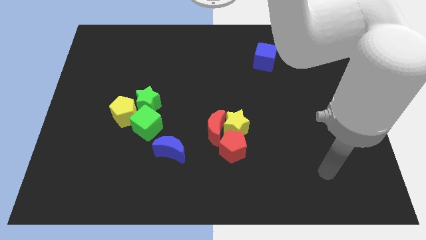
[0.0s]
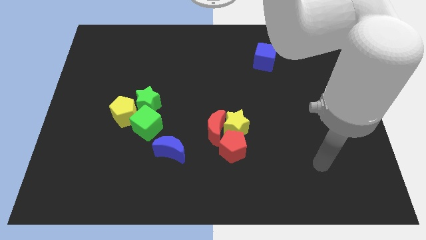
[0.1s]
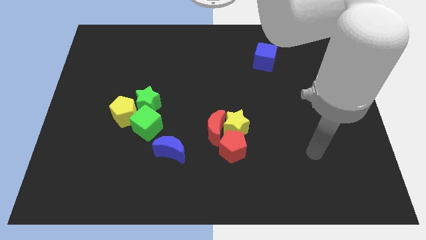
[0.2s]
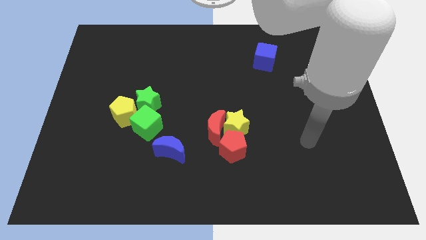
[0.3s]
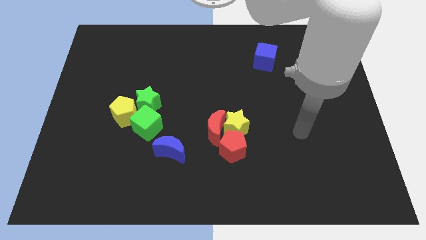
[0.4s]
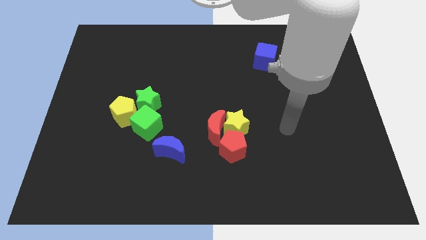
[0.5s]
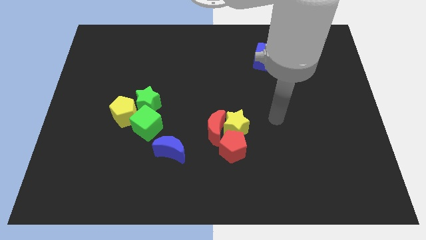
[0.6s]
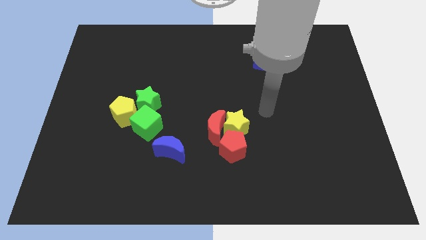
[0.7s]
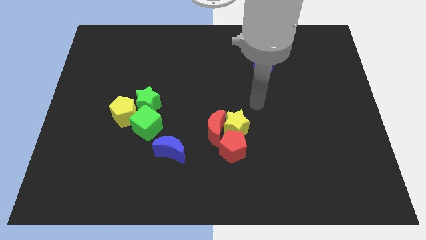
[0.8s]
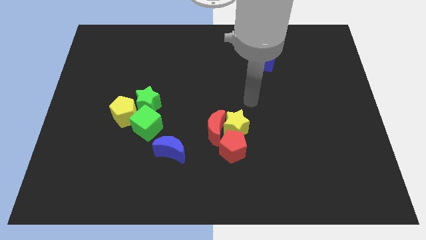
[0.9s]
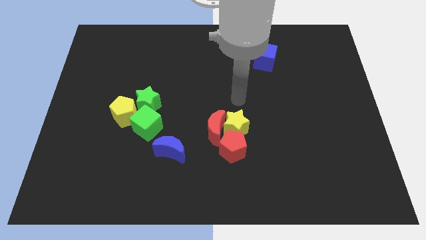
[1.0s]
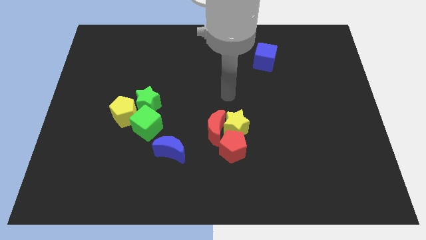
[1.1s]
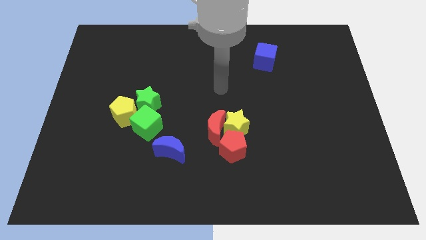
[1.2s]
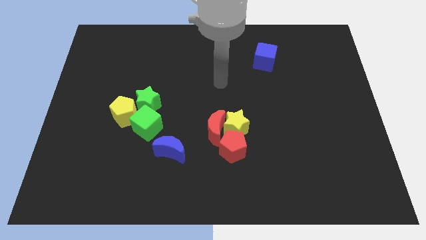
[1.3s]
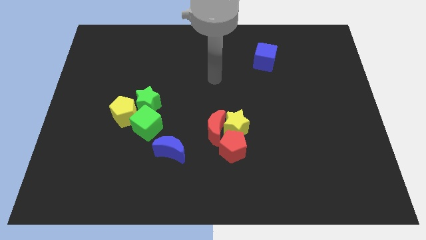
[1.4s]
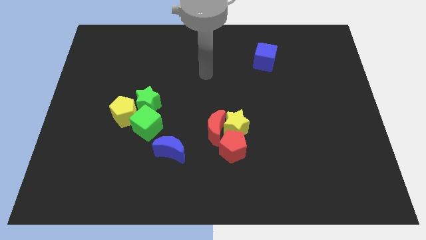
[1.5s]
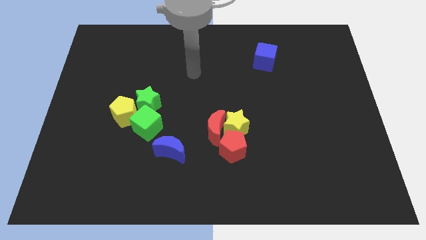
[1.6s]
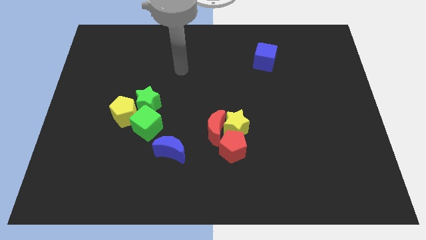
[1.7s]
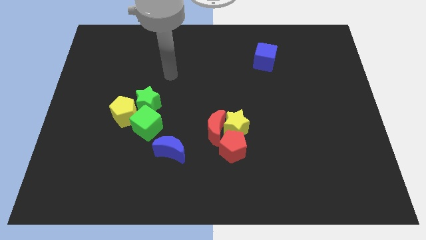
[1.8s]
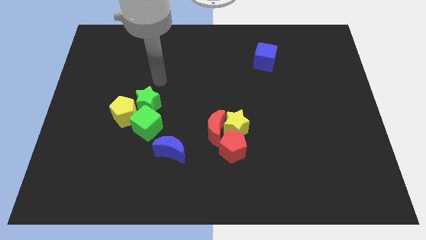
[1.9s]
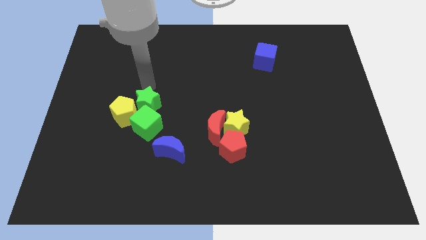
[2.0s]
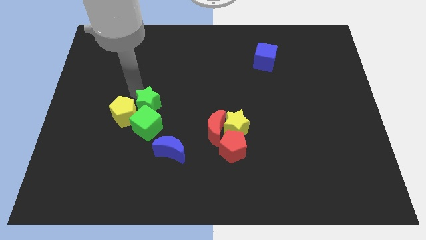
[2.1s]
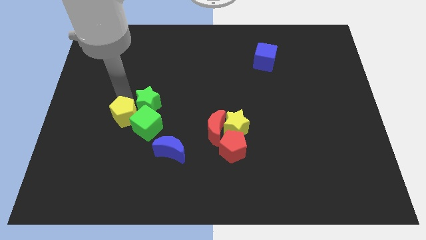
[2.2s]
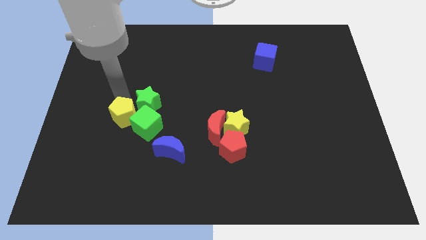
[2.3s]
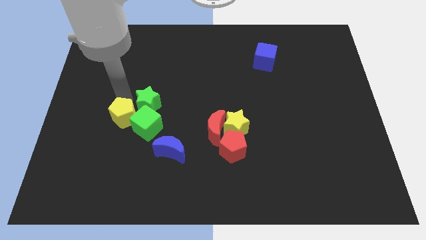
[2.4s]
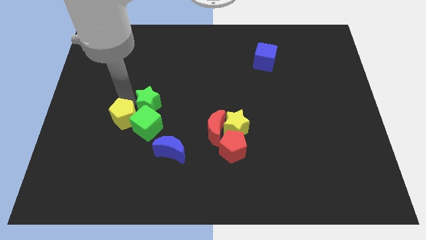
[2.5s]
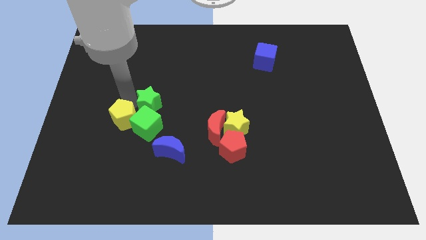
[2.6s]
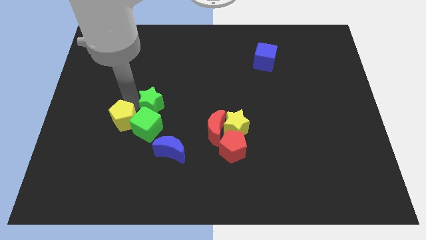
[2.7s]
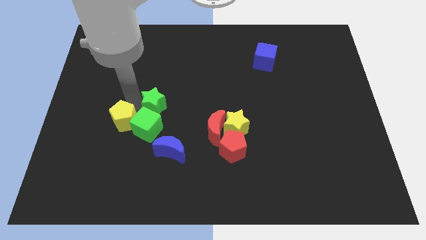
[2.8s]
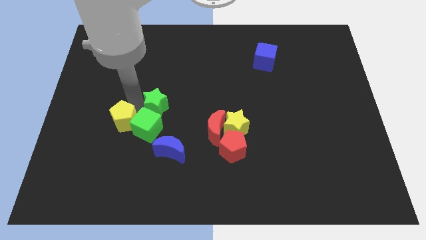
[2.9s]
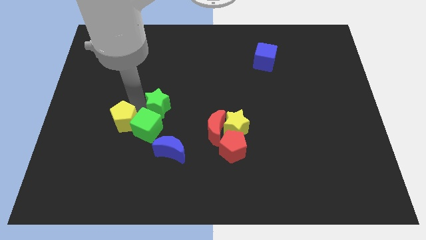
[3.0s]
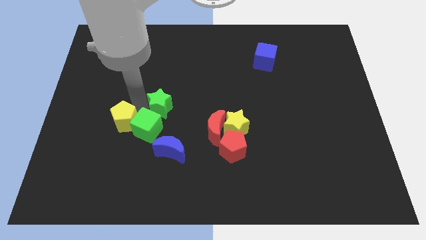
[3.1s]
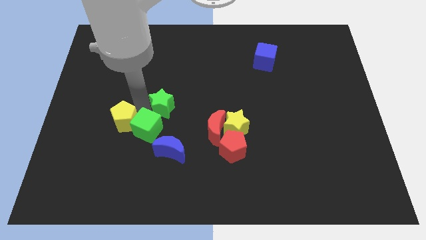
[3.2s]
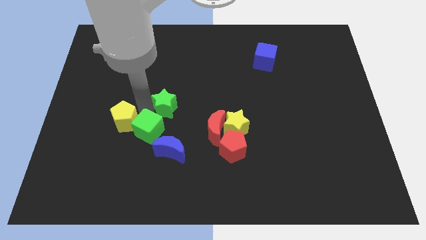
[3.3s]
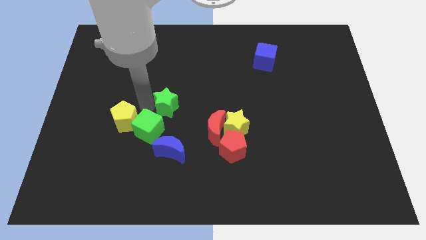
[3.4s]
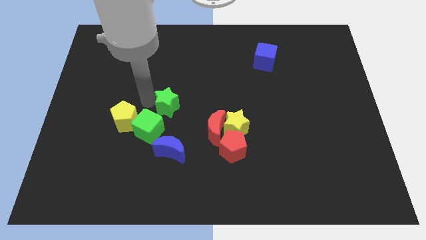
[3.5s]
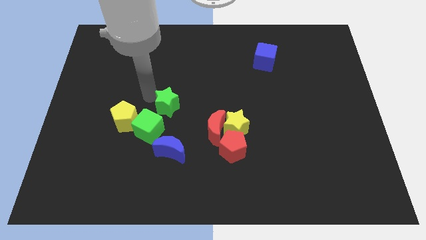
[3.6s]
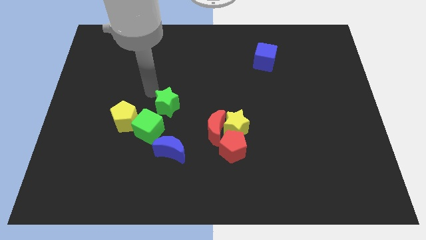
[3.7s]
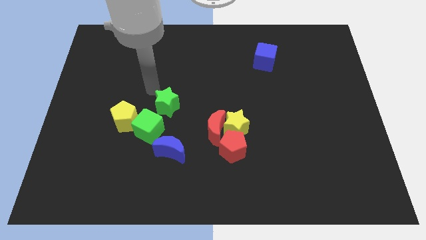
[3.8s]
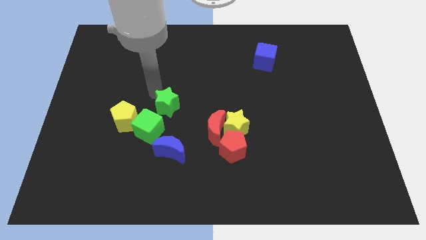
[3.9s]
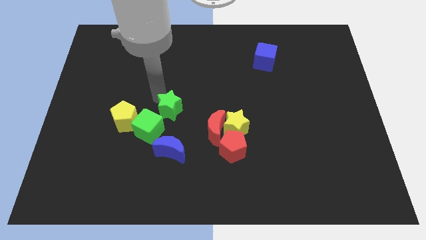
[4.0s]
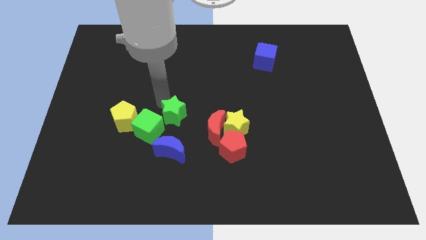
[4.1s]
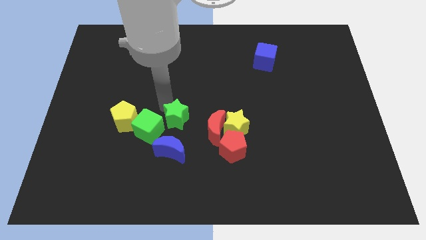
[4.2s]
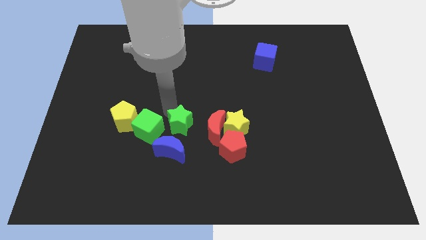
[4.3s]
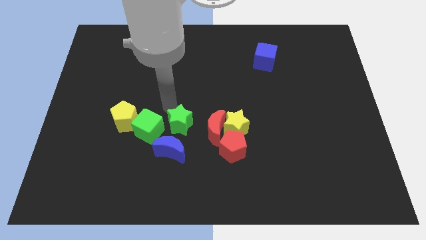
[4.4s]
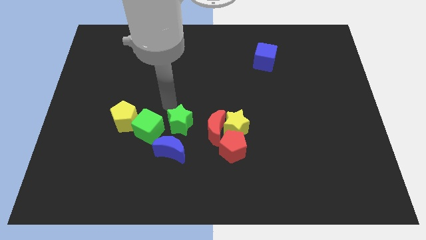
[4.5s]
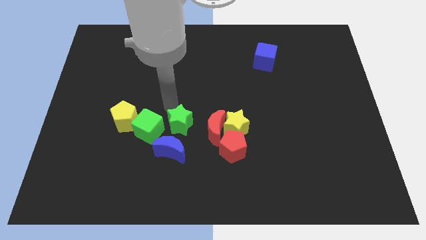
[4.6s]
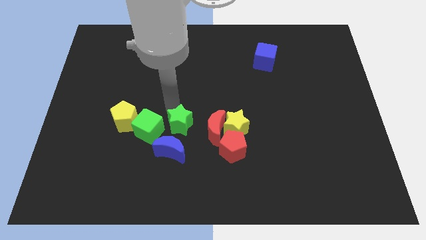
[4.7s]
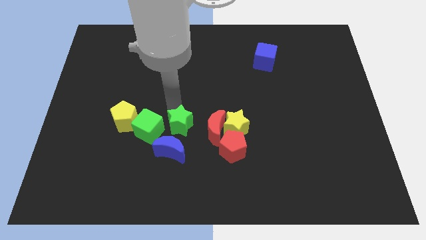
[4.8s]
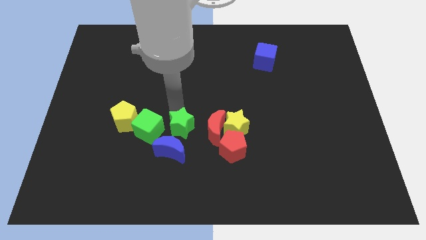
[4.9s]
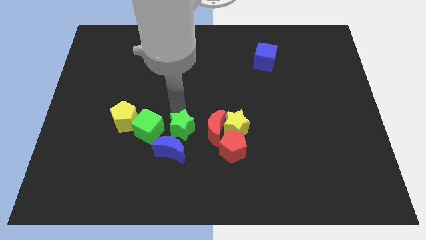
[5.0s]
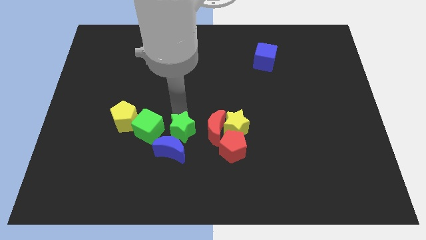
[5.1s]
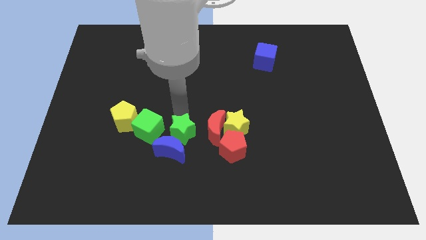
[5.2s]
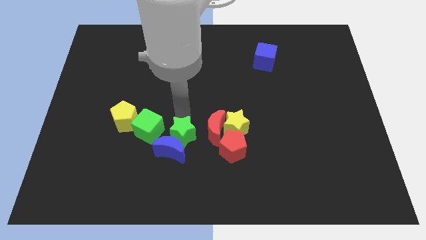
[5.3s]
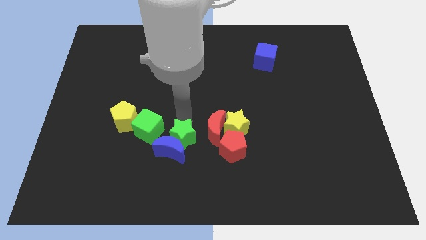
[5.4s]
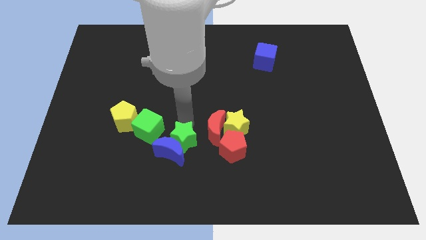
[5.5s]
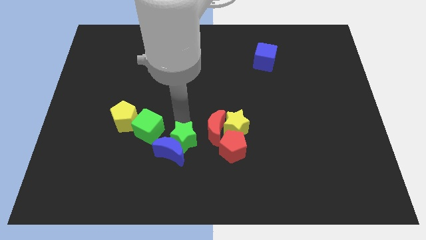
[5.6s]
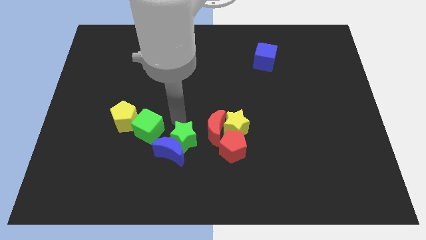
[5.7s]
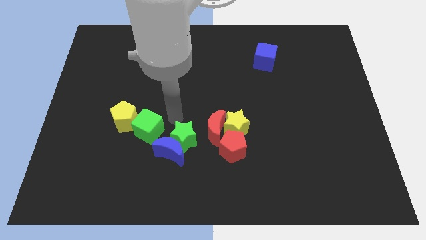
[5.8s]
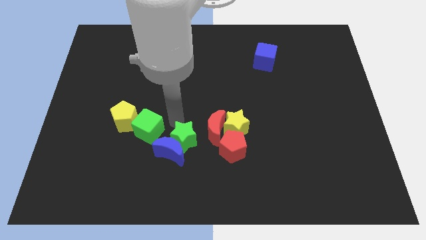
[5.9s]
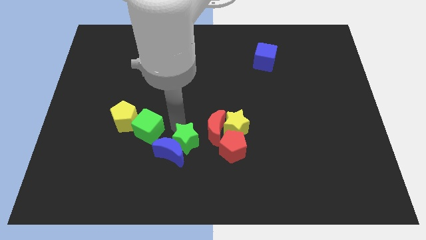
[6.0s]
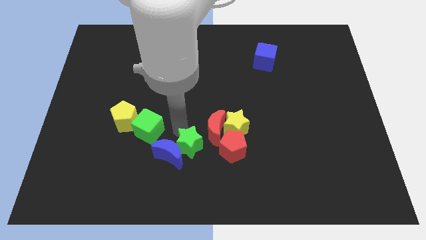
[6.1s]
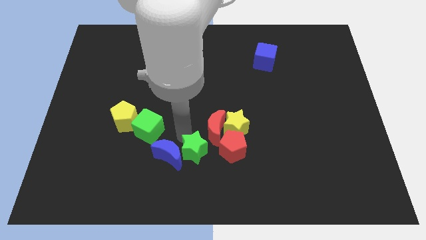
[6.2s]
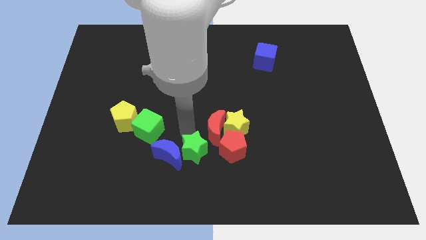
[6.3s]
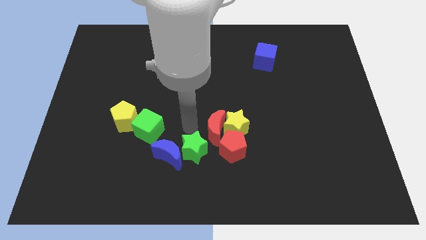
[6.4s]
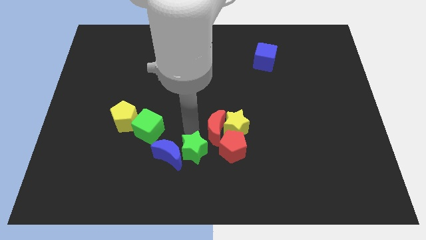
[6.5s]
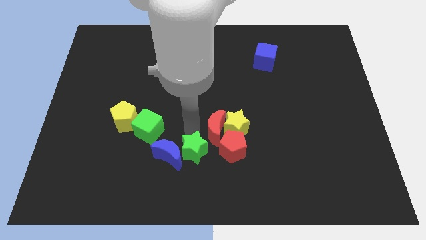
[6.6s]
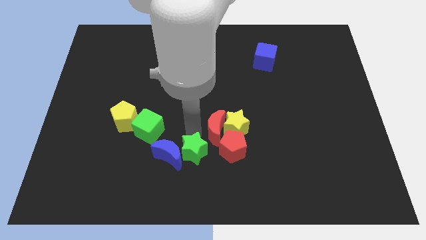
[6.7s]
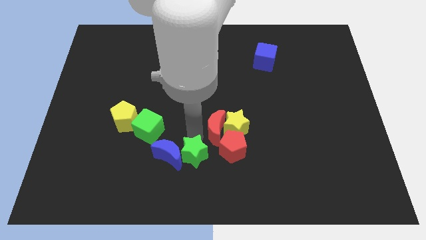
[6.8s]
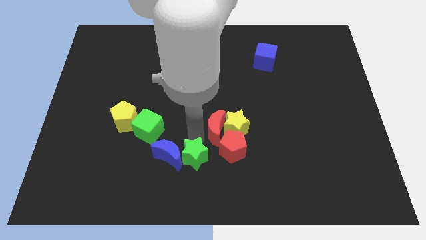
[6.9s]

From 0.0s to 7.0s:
slide the green star to the bottom side
